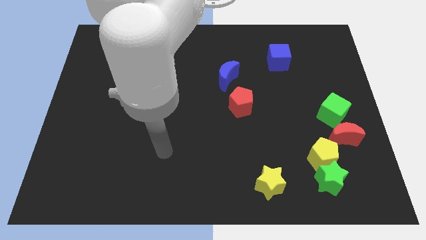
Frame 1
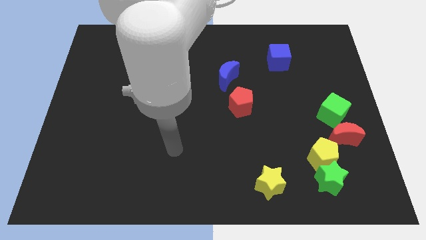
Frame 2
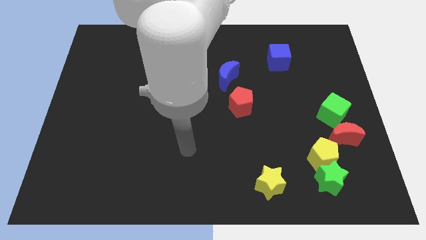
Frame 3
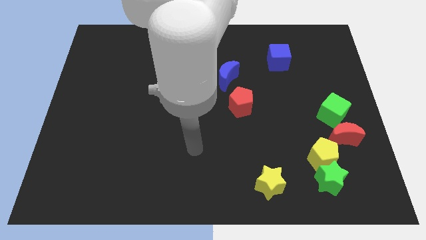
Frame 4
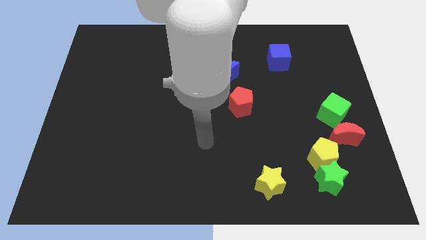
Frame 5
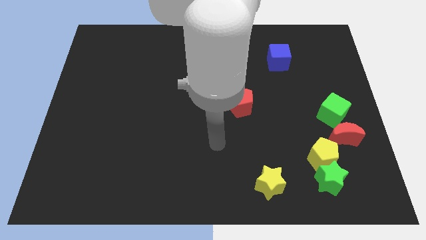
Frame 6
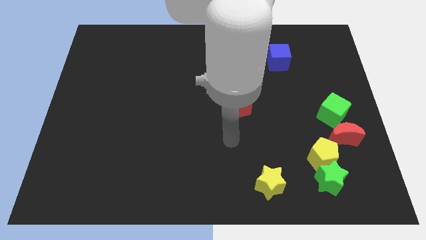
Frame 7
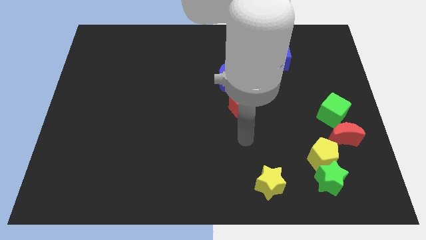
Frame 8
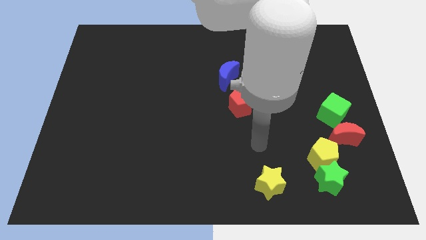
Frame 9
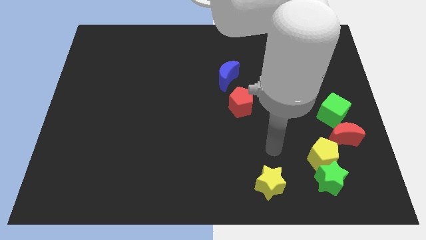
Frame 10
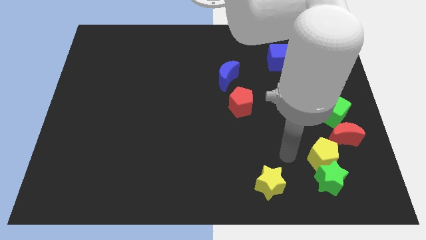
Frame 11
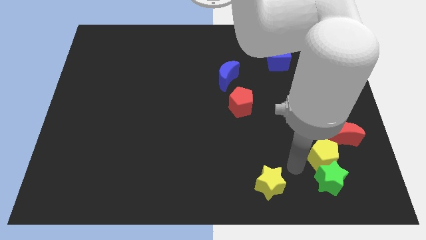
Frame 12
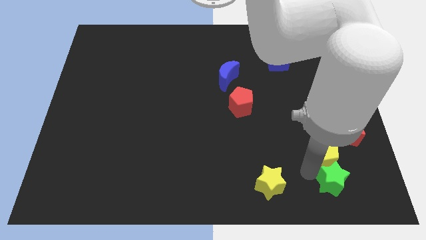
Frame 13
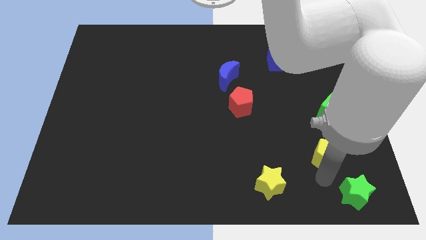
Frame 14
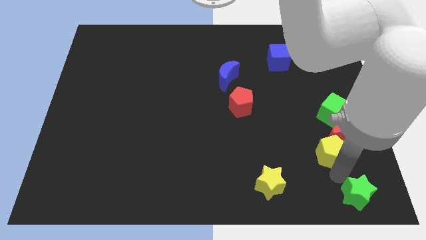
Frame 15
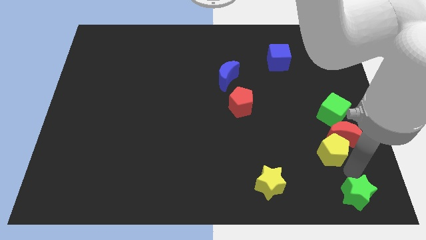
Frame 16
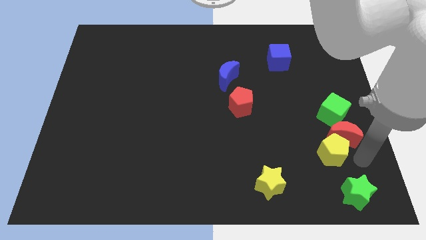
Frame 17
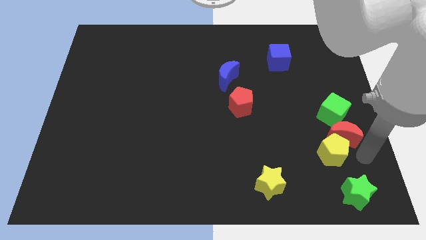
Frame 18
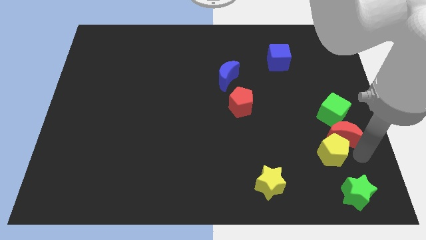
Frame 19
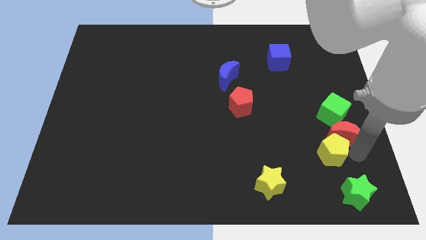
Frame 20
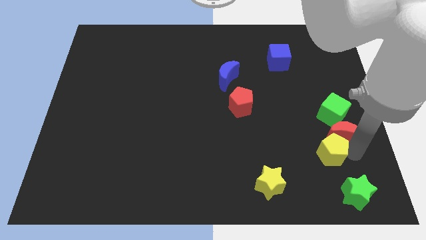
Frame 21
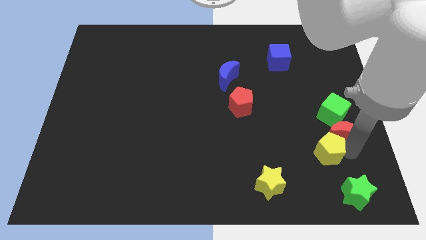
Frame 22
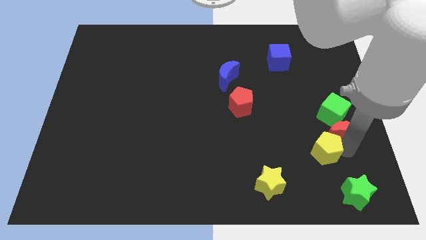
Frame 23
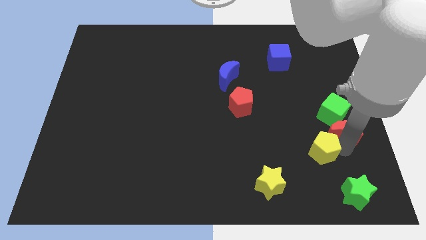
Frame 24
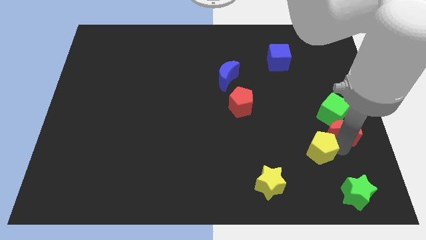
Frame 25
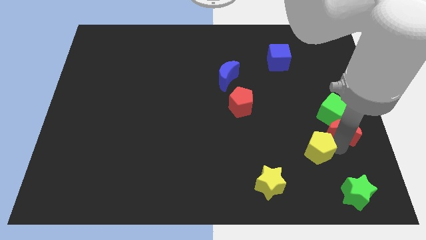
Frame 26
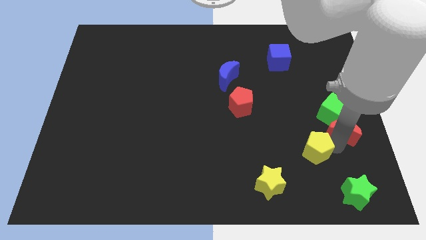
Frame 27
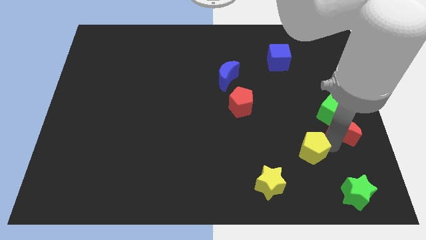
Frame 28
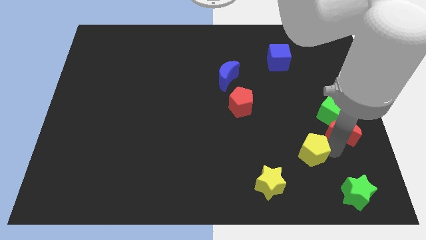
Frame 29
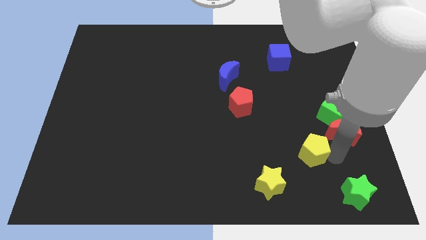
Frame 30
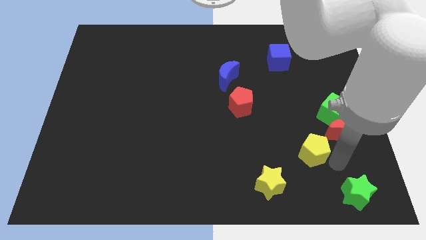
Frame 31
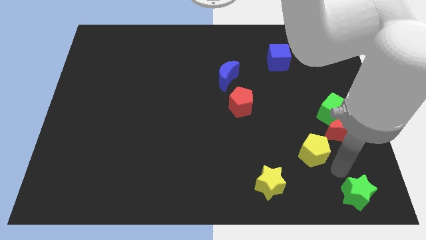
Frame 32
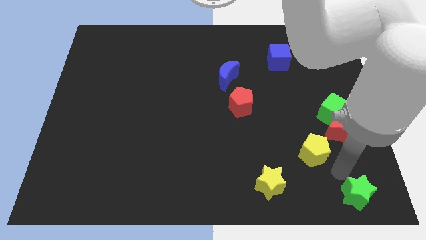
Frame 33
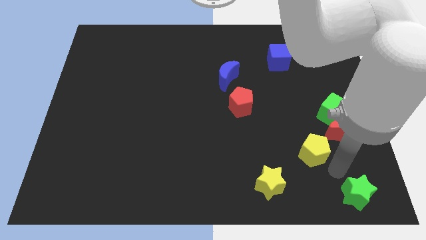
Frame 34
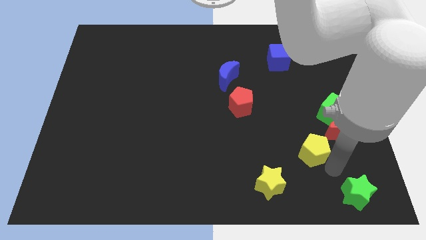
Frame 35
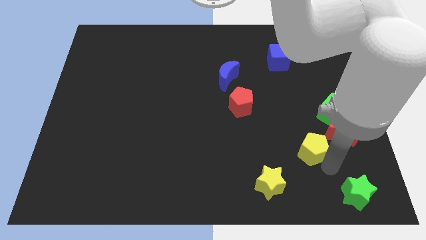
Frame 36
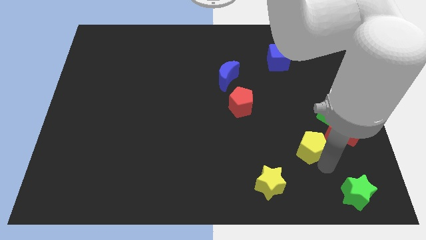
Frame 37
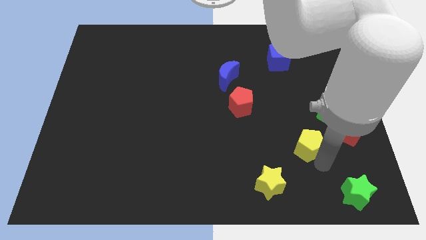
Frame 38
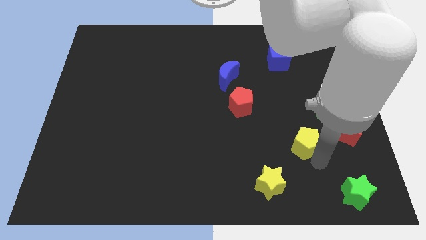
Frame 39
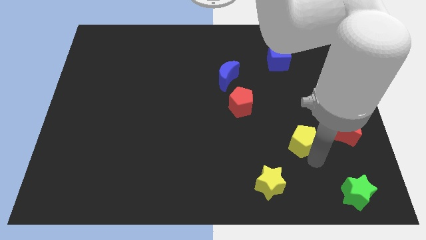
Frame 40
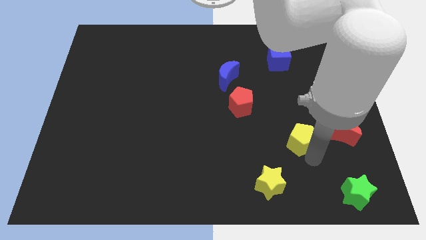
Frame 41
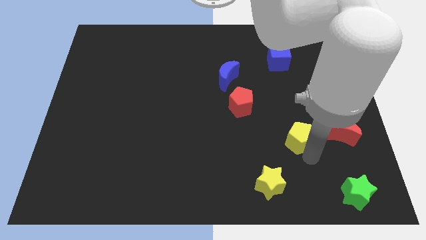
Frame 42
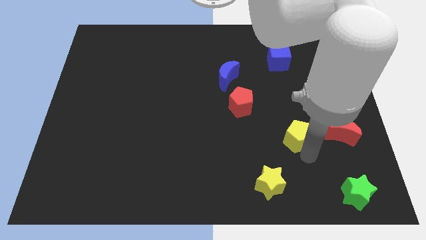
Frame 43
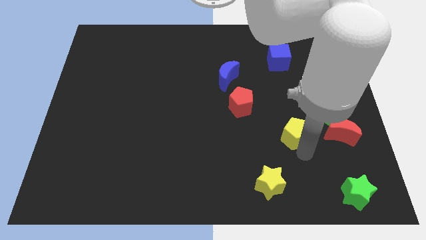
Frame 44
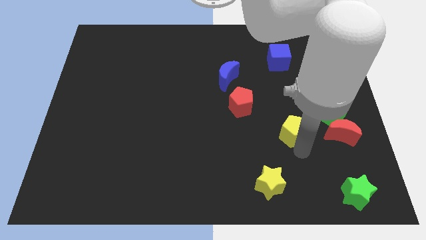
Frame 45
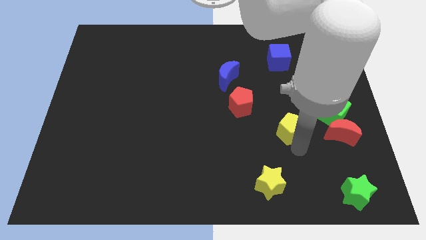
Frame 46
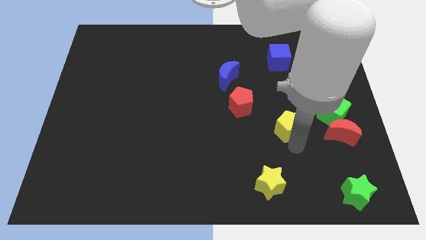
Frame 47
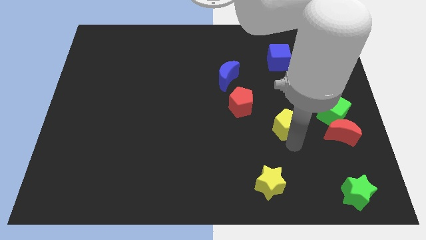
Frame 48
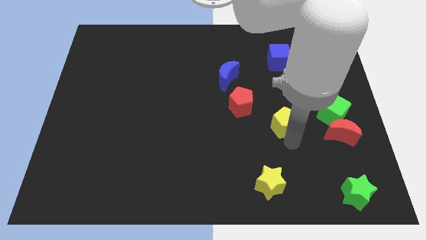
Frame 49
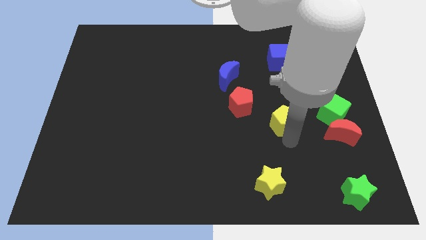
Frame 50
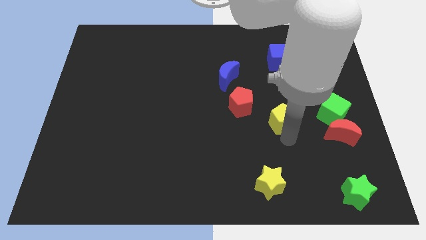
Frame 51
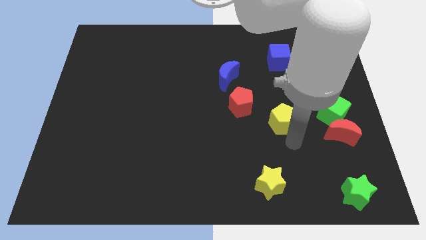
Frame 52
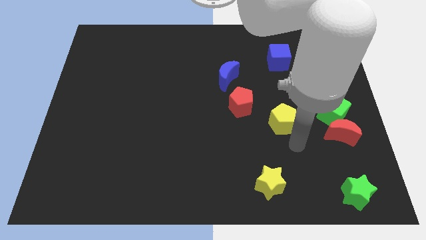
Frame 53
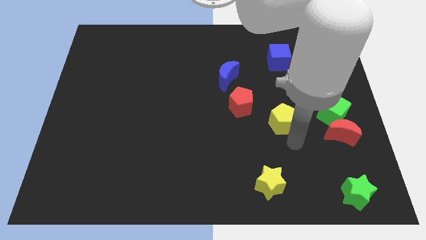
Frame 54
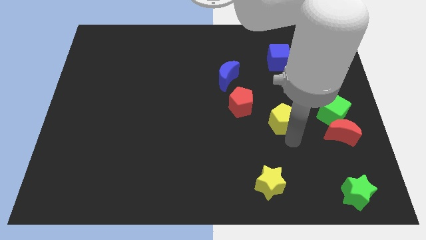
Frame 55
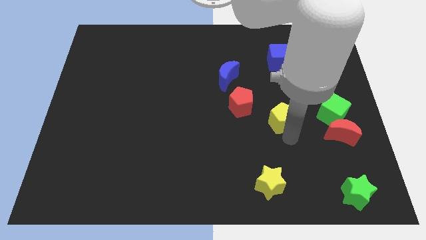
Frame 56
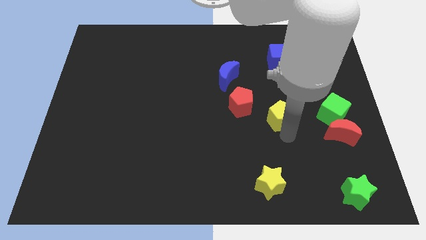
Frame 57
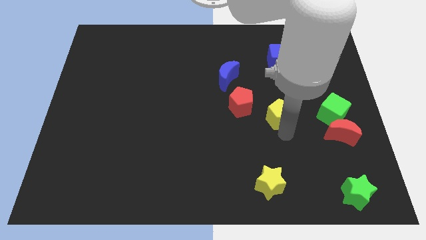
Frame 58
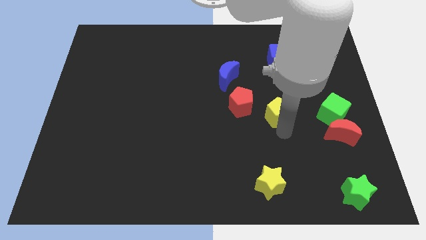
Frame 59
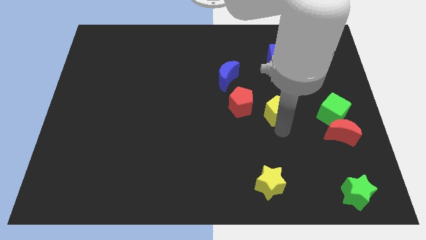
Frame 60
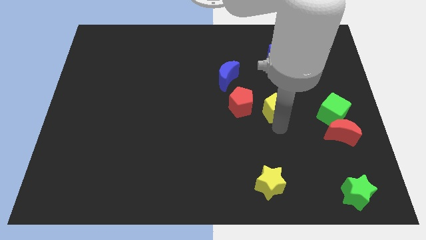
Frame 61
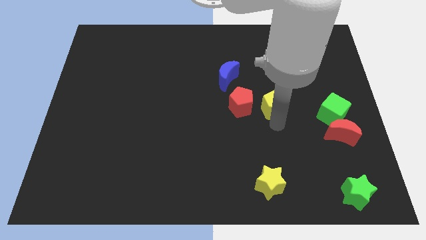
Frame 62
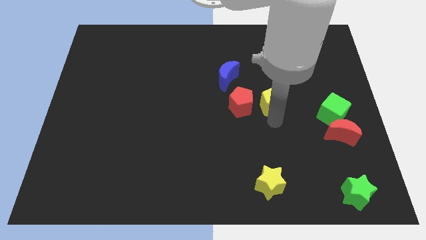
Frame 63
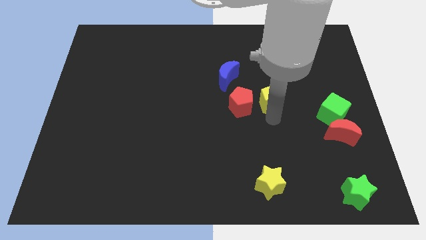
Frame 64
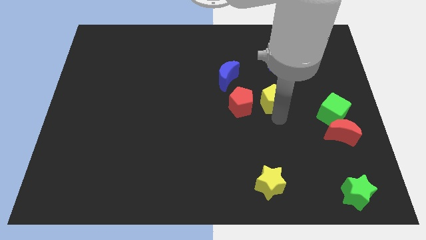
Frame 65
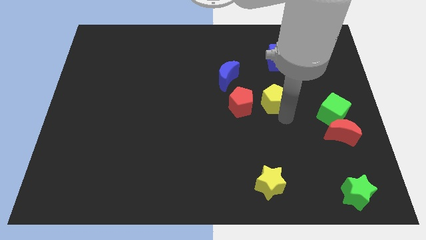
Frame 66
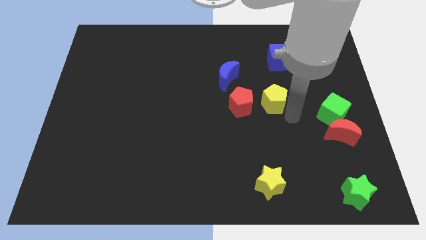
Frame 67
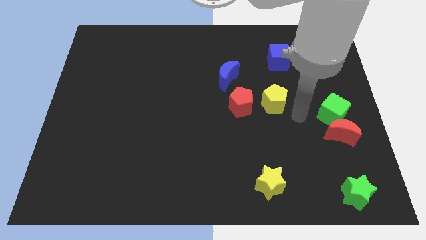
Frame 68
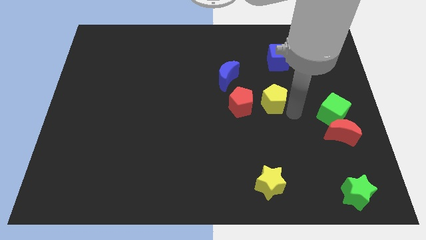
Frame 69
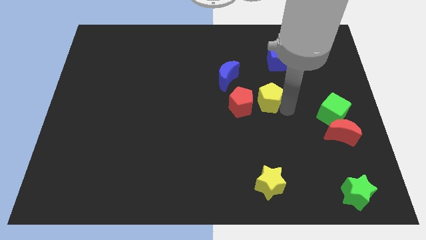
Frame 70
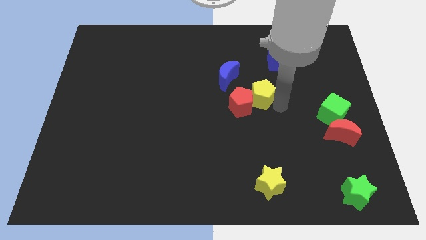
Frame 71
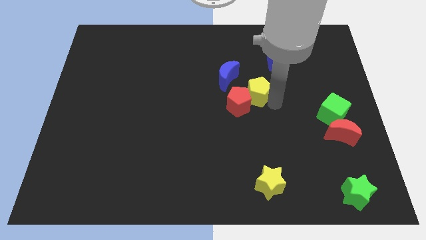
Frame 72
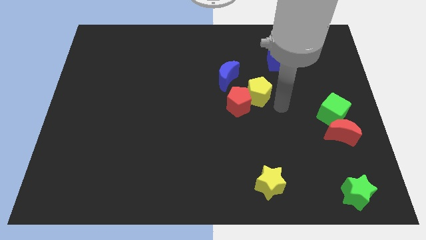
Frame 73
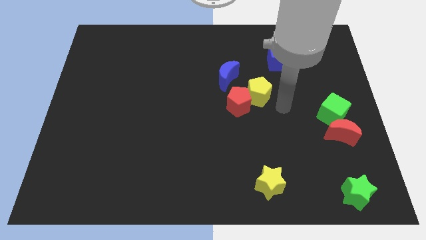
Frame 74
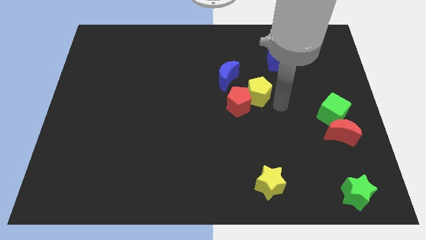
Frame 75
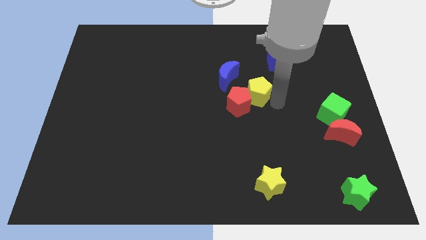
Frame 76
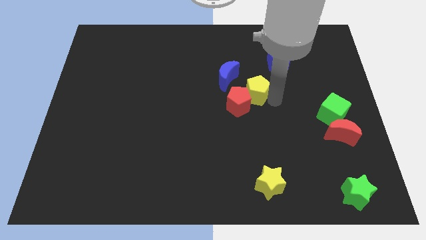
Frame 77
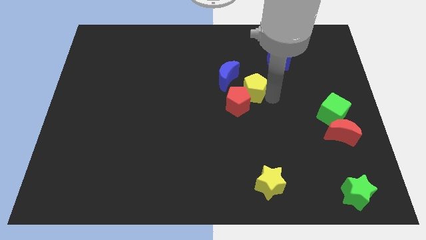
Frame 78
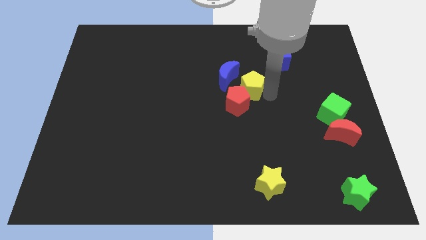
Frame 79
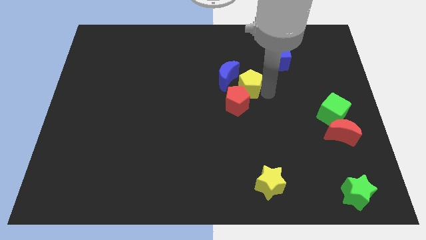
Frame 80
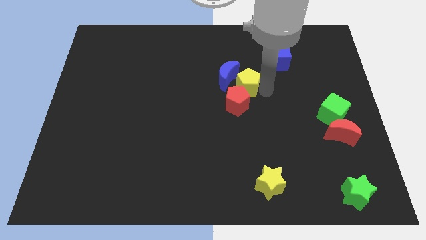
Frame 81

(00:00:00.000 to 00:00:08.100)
move the yellow pentagon next to the blue moon
